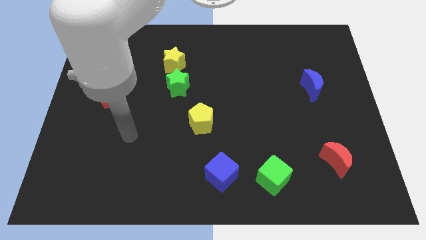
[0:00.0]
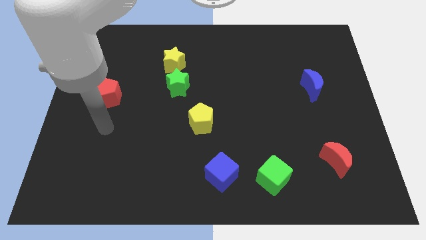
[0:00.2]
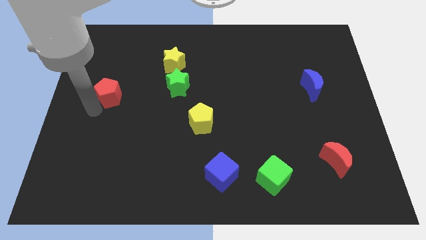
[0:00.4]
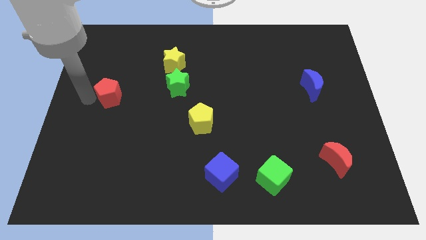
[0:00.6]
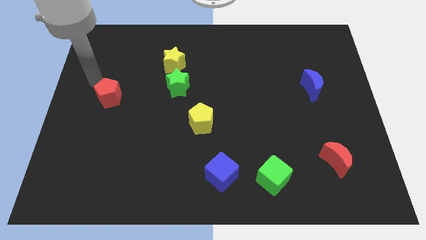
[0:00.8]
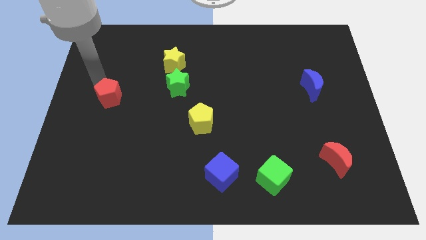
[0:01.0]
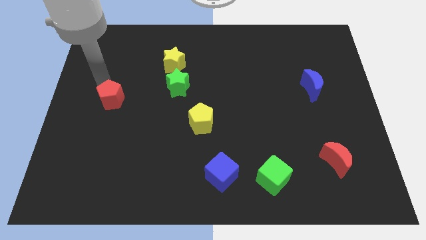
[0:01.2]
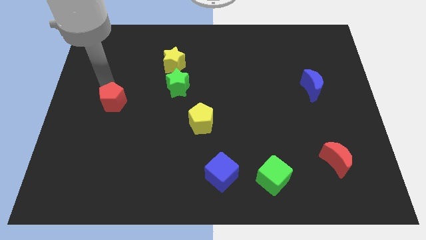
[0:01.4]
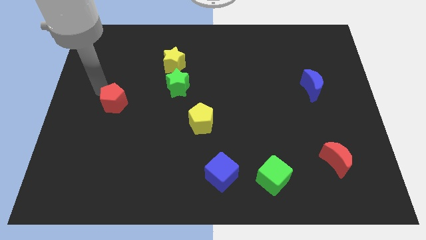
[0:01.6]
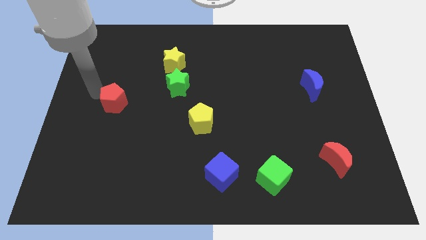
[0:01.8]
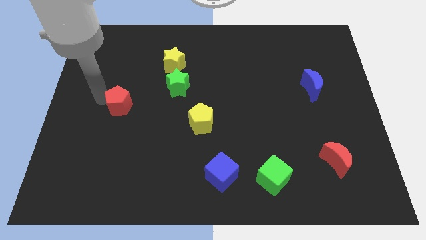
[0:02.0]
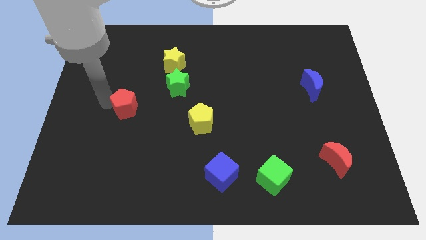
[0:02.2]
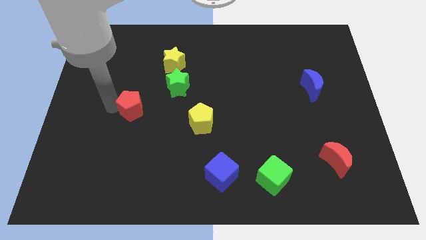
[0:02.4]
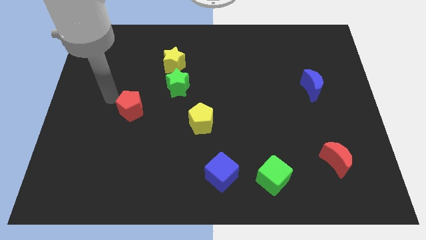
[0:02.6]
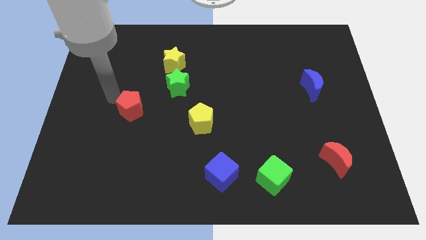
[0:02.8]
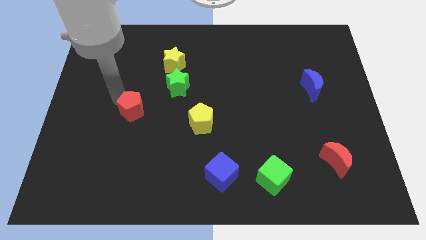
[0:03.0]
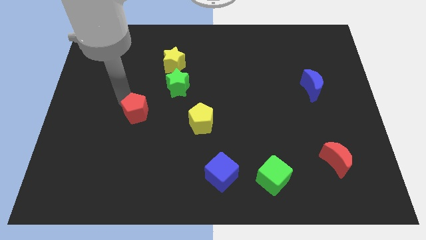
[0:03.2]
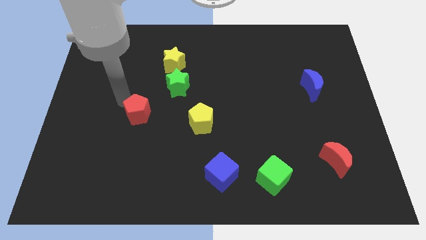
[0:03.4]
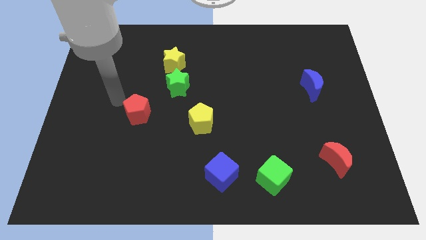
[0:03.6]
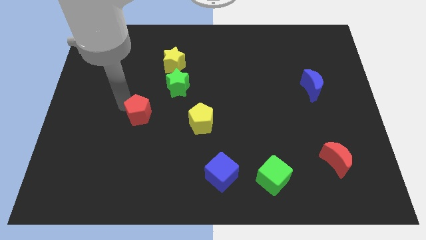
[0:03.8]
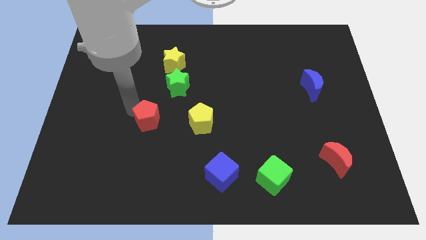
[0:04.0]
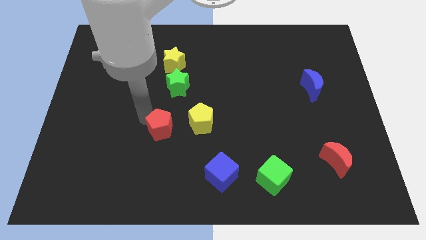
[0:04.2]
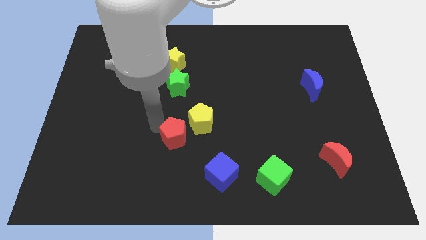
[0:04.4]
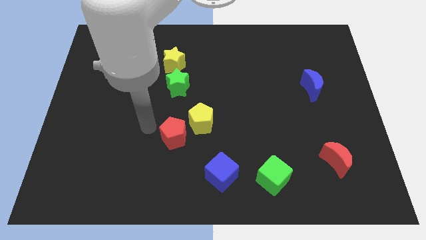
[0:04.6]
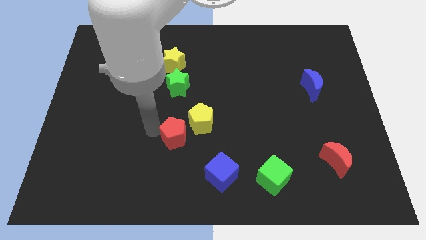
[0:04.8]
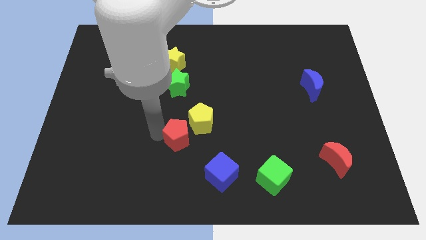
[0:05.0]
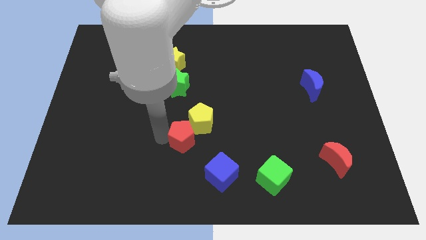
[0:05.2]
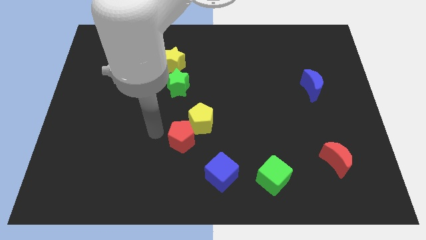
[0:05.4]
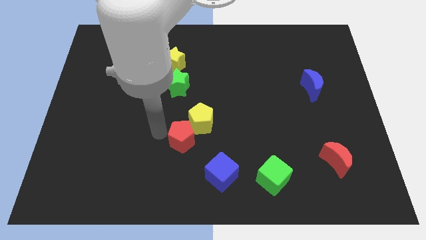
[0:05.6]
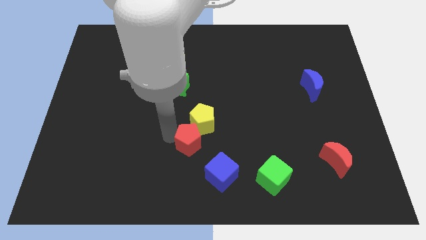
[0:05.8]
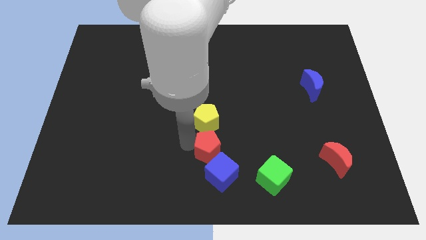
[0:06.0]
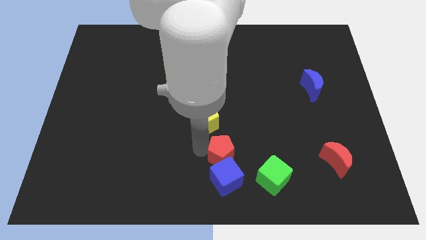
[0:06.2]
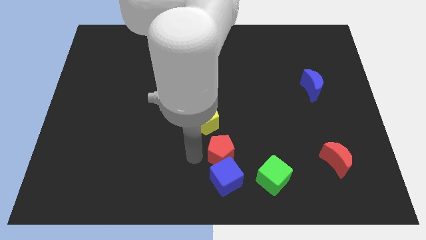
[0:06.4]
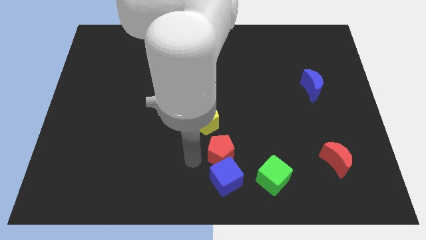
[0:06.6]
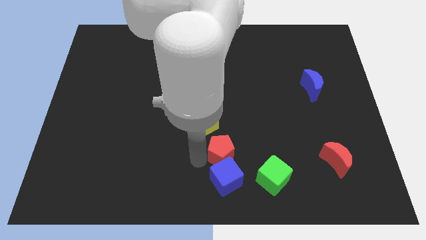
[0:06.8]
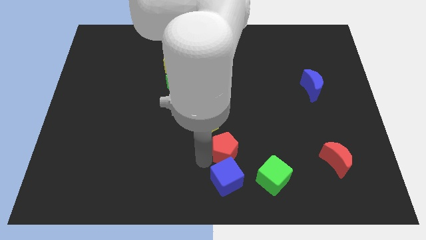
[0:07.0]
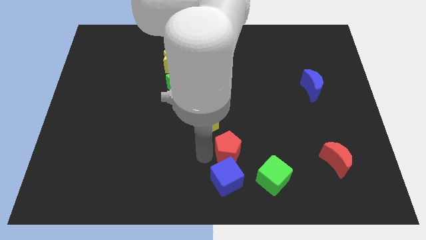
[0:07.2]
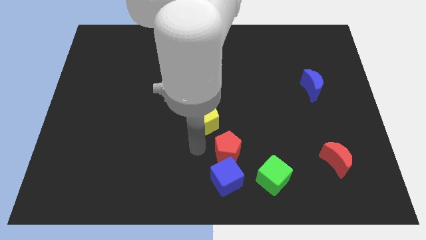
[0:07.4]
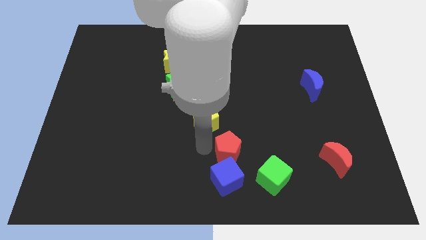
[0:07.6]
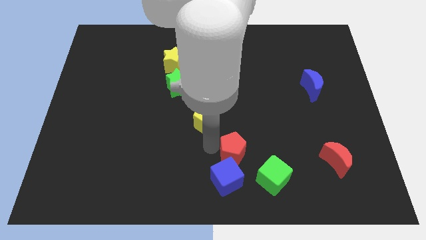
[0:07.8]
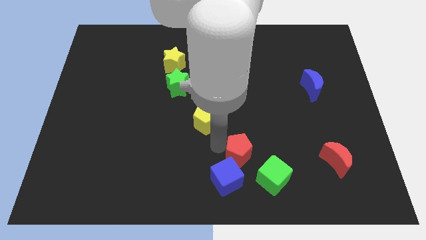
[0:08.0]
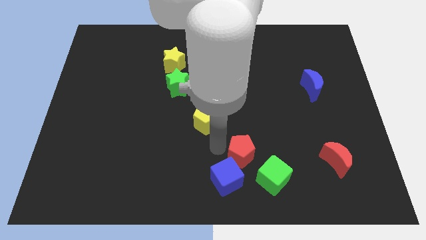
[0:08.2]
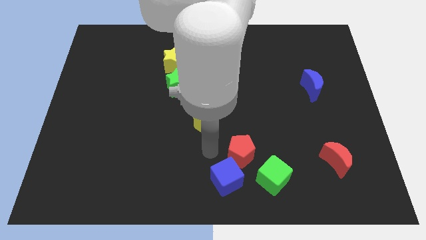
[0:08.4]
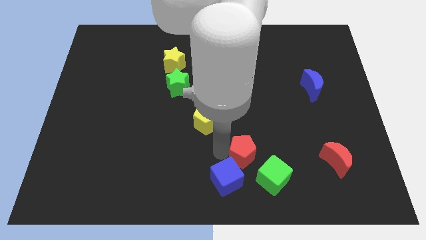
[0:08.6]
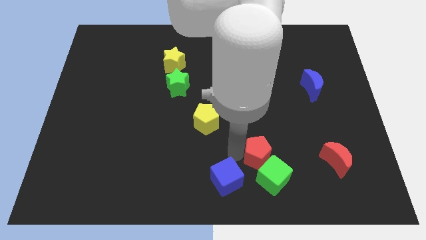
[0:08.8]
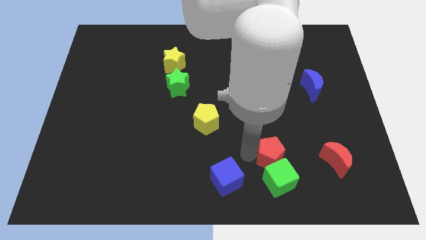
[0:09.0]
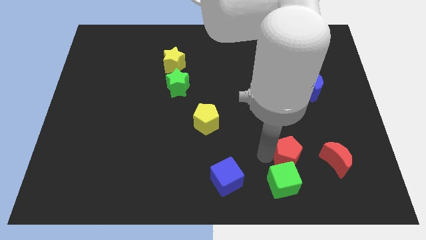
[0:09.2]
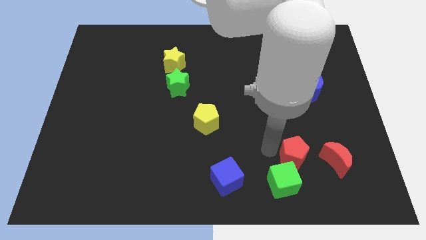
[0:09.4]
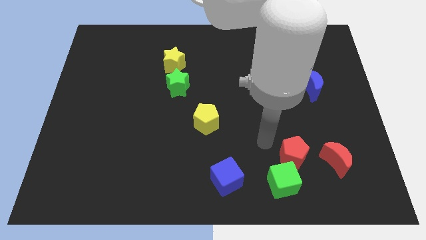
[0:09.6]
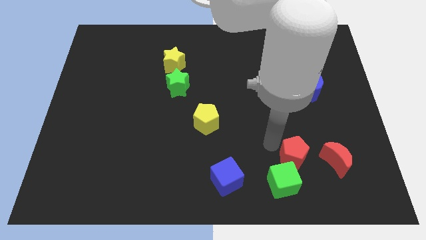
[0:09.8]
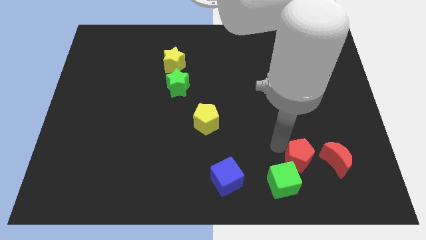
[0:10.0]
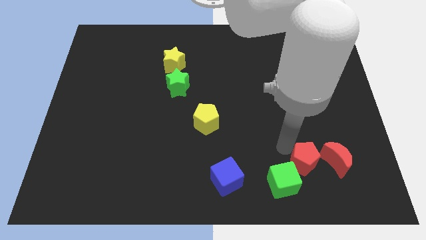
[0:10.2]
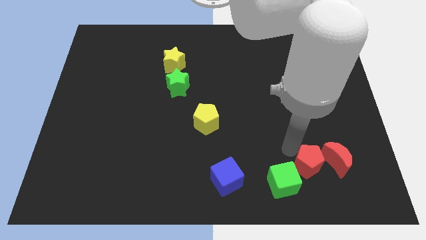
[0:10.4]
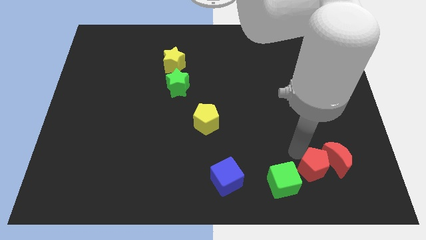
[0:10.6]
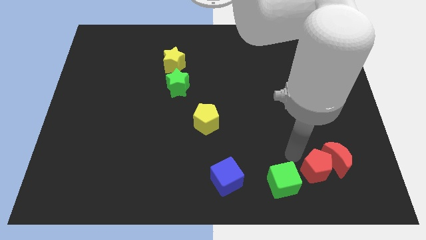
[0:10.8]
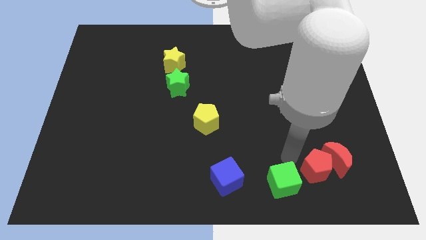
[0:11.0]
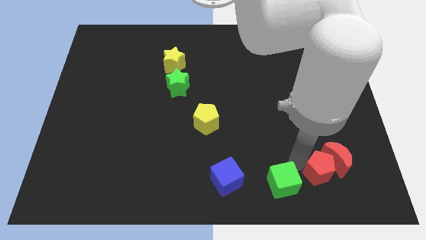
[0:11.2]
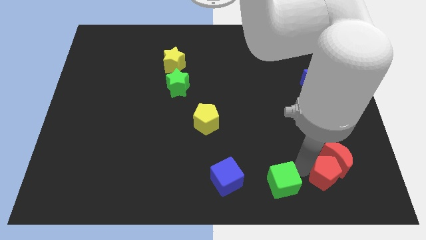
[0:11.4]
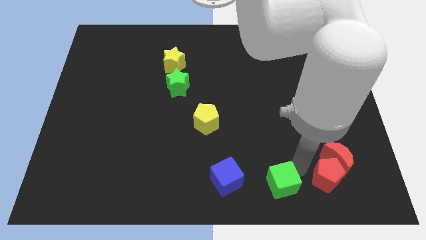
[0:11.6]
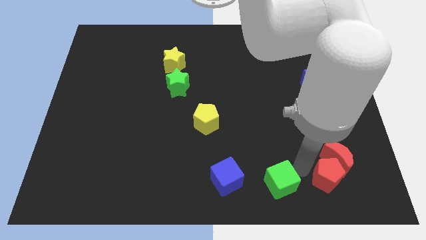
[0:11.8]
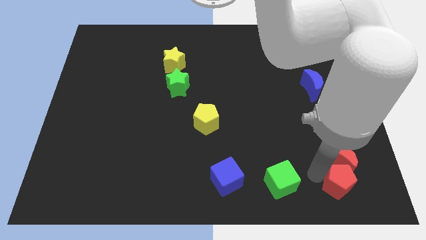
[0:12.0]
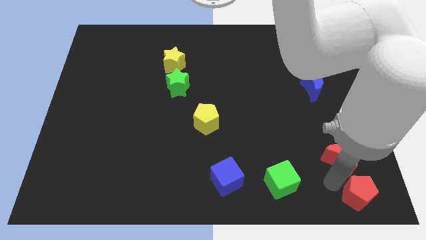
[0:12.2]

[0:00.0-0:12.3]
push the red pentagon to the lower right corner
